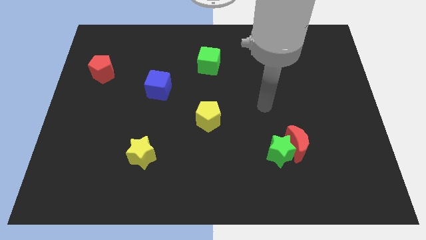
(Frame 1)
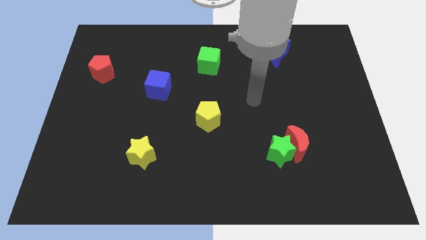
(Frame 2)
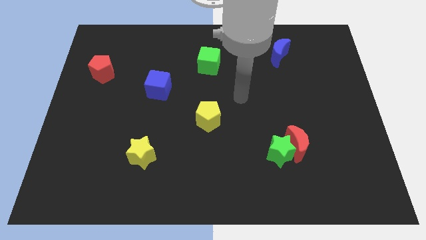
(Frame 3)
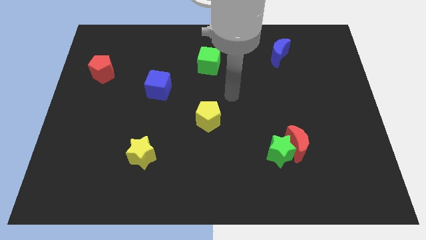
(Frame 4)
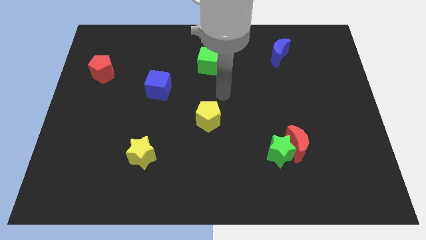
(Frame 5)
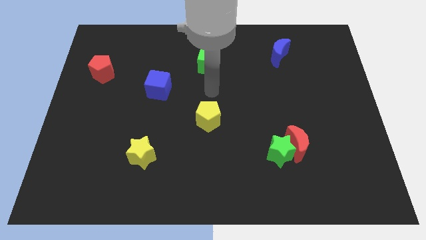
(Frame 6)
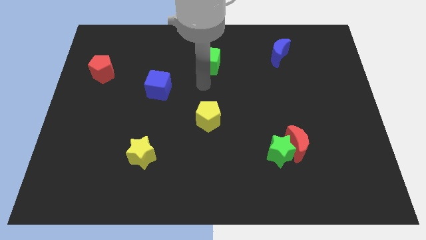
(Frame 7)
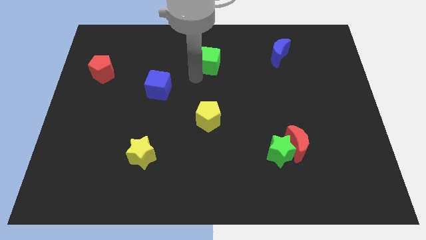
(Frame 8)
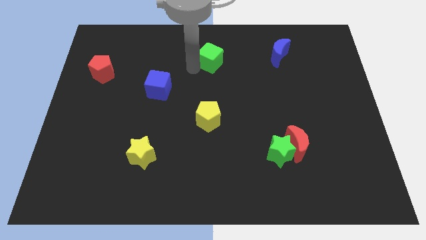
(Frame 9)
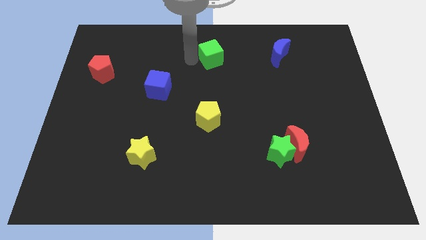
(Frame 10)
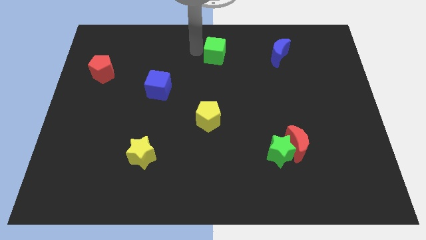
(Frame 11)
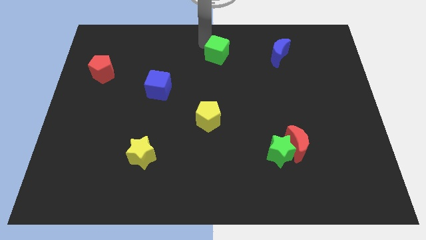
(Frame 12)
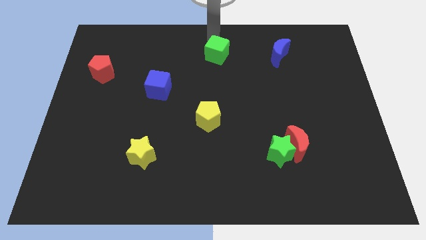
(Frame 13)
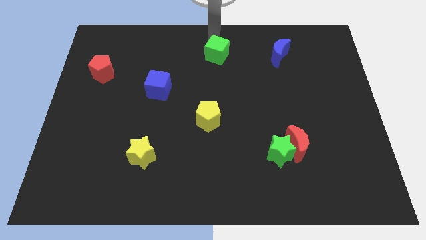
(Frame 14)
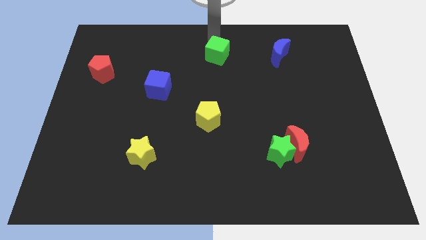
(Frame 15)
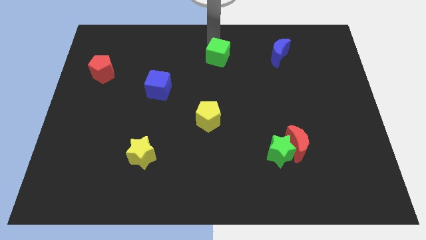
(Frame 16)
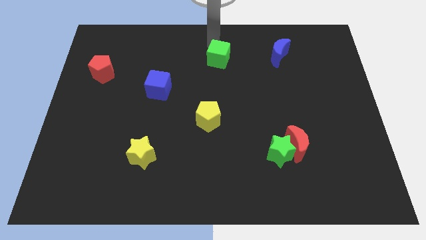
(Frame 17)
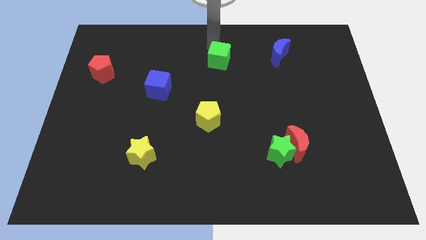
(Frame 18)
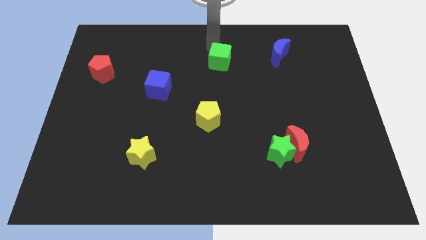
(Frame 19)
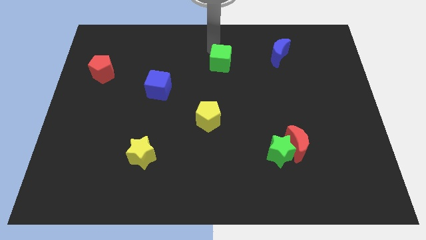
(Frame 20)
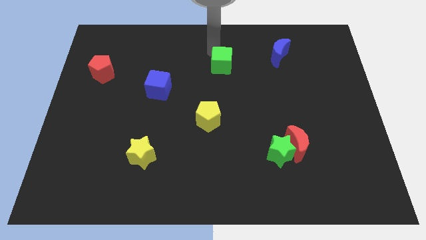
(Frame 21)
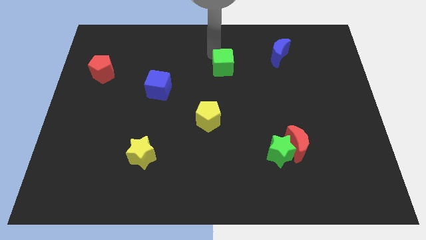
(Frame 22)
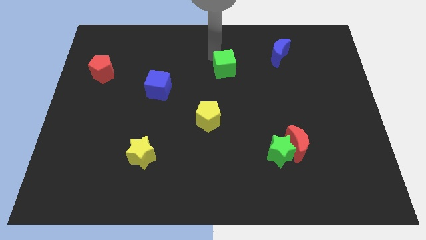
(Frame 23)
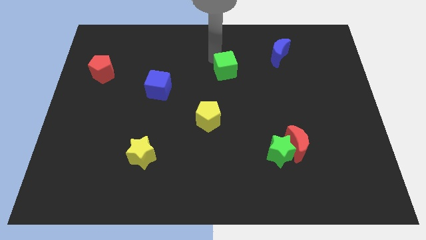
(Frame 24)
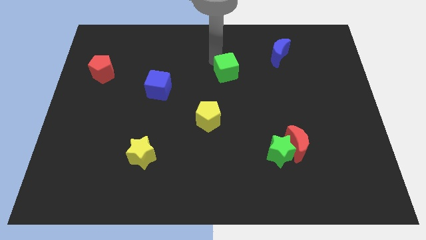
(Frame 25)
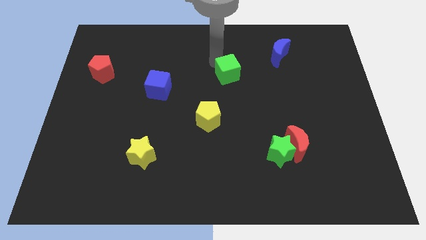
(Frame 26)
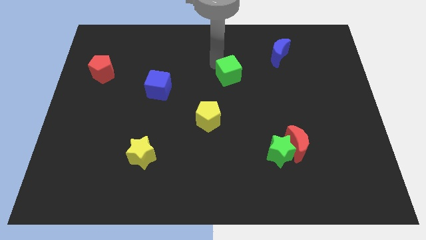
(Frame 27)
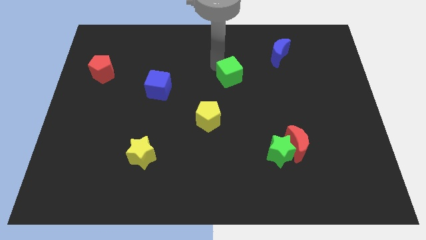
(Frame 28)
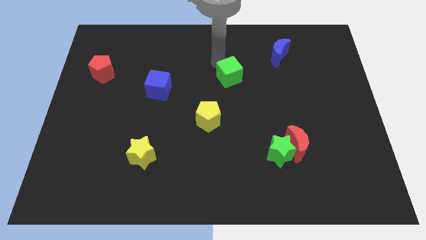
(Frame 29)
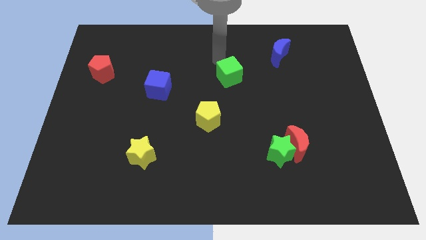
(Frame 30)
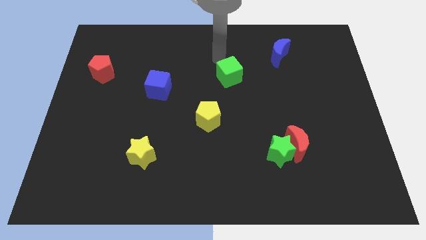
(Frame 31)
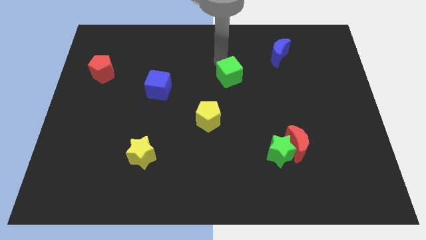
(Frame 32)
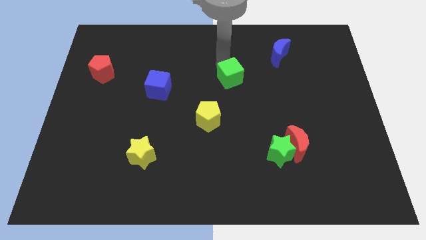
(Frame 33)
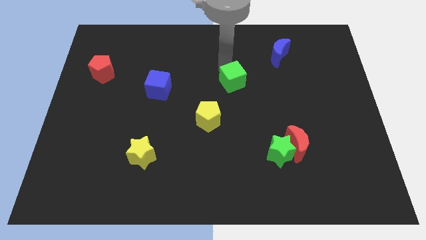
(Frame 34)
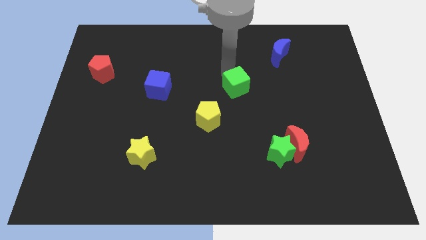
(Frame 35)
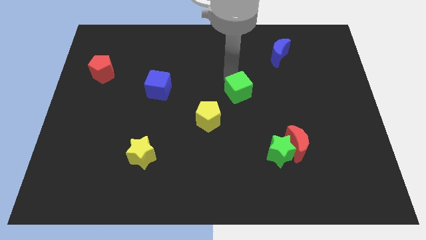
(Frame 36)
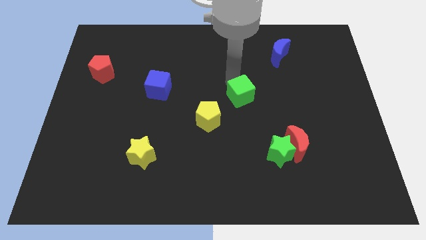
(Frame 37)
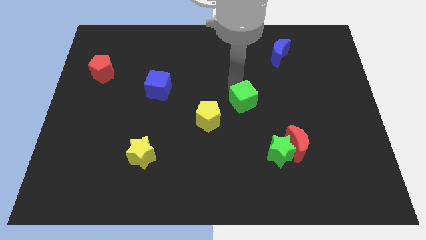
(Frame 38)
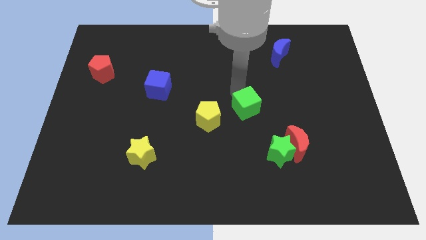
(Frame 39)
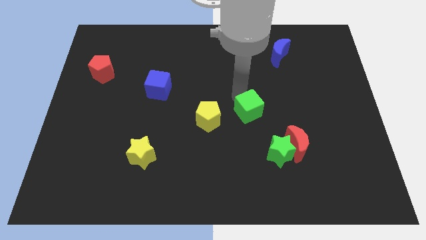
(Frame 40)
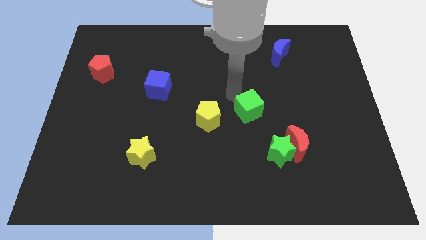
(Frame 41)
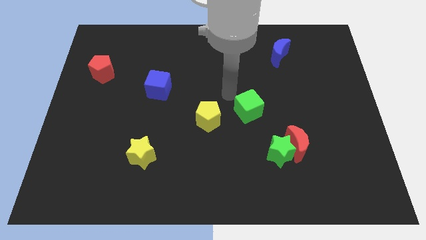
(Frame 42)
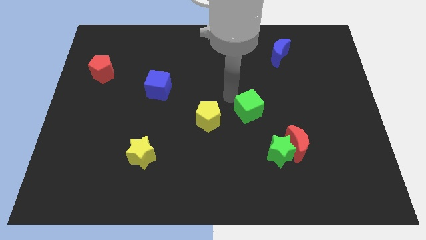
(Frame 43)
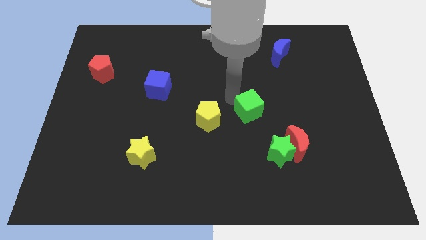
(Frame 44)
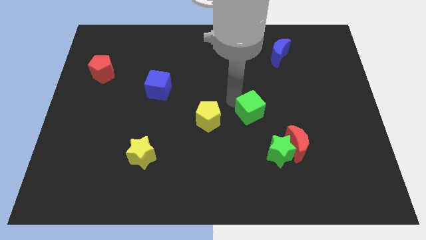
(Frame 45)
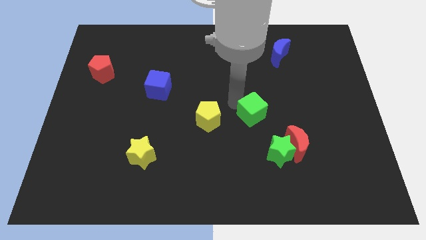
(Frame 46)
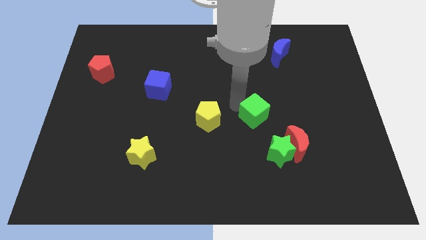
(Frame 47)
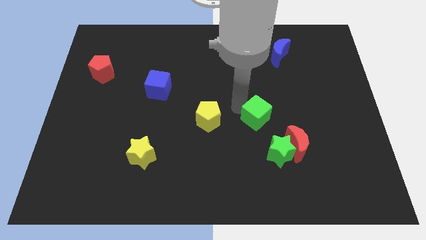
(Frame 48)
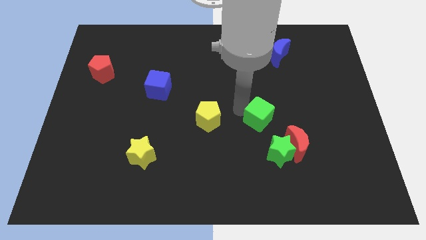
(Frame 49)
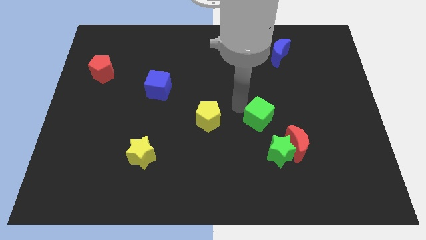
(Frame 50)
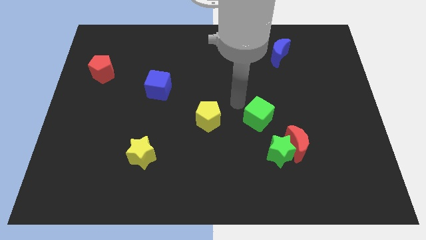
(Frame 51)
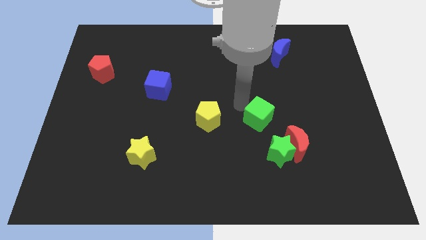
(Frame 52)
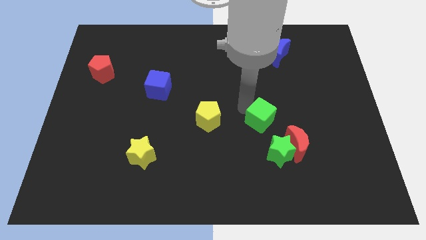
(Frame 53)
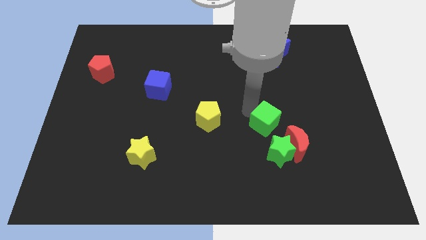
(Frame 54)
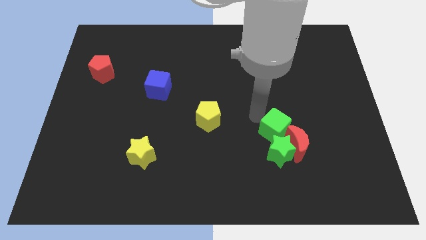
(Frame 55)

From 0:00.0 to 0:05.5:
move the green cube towards the red moon

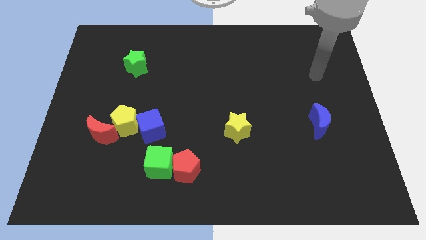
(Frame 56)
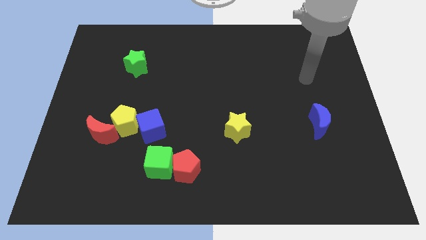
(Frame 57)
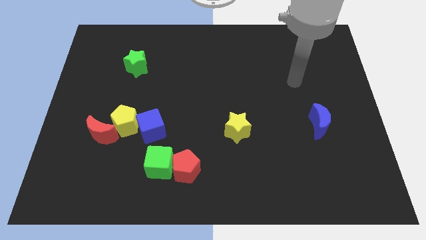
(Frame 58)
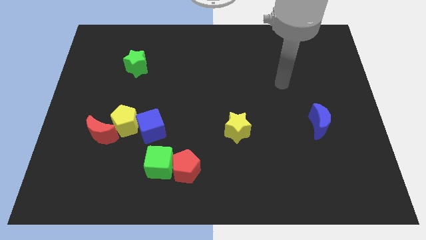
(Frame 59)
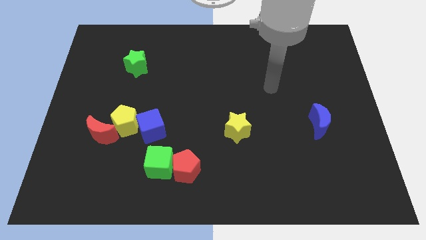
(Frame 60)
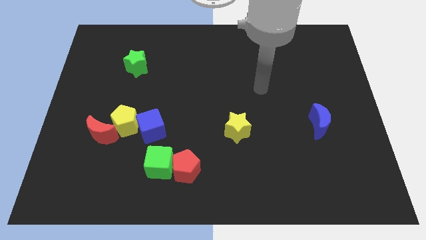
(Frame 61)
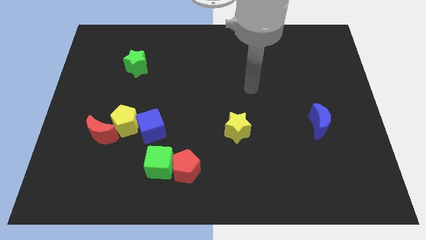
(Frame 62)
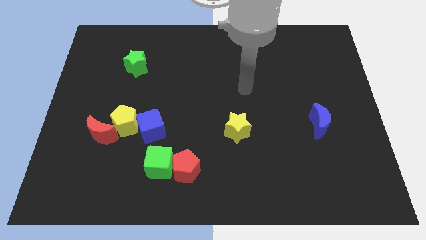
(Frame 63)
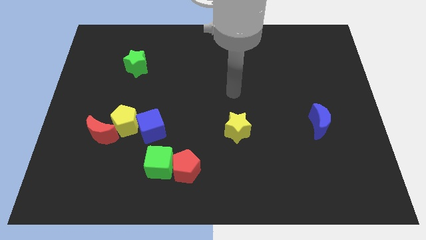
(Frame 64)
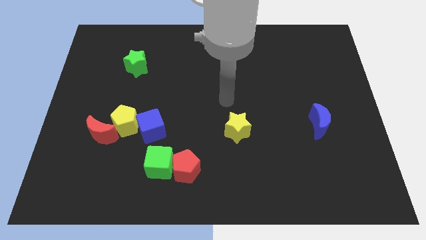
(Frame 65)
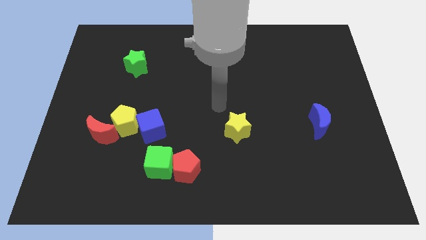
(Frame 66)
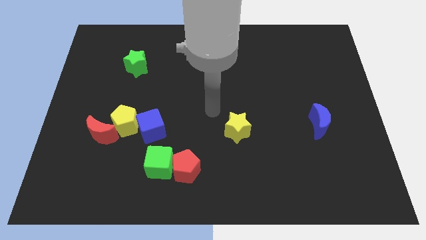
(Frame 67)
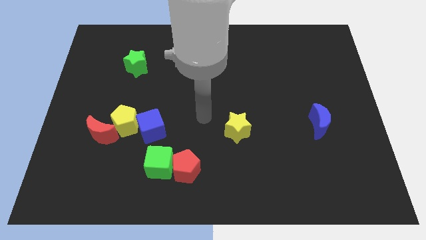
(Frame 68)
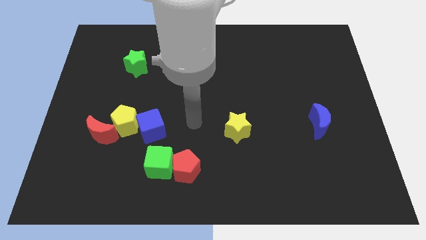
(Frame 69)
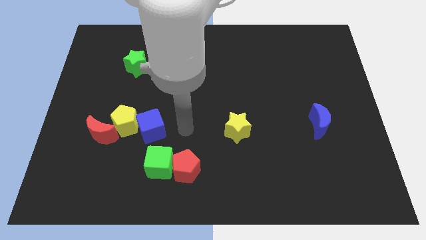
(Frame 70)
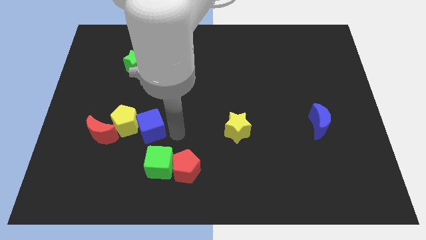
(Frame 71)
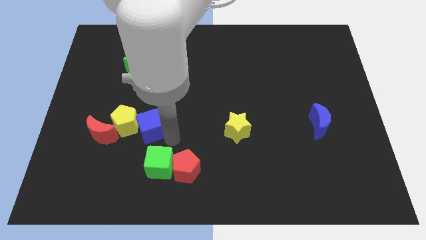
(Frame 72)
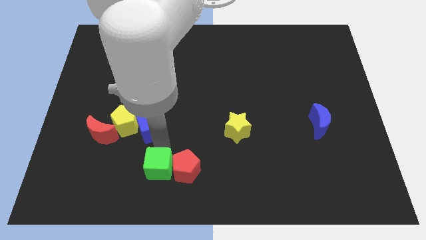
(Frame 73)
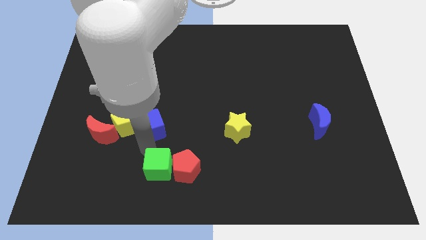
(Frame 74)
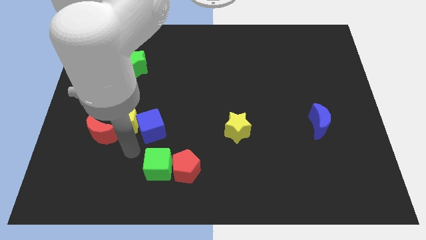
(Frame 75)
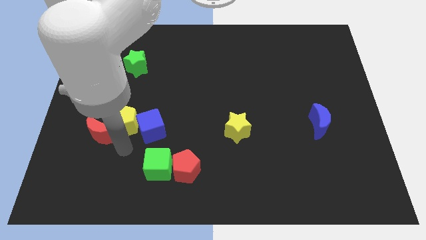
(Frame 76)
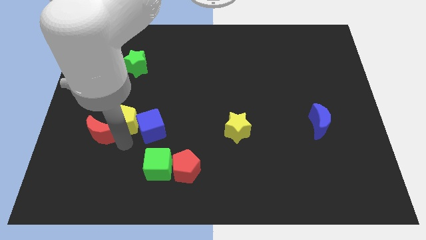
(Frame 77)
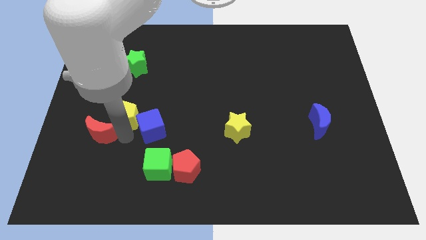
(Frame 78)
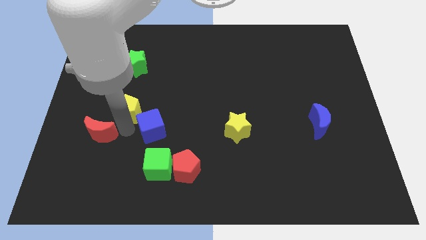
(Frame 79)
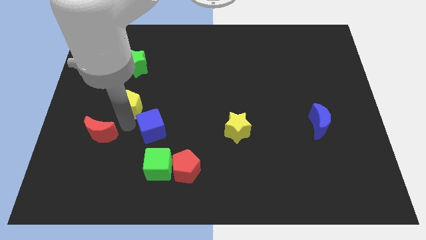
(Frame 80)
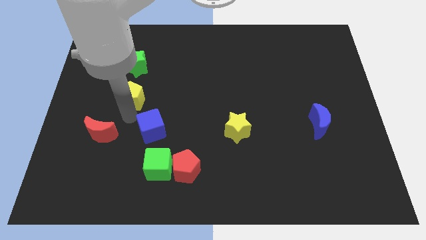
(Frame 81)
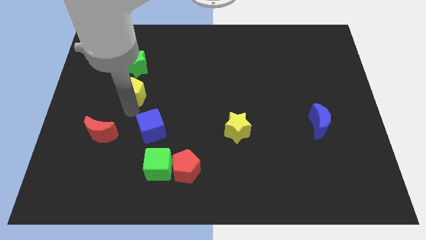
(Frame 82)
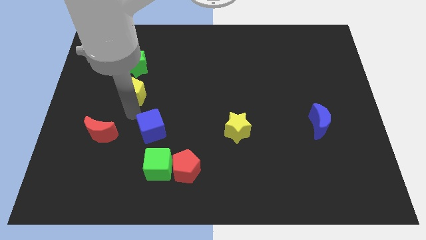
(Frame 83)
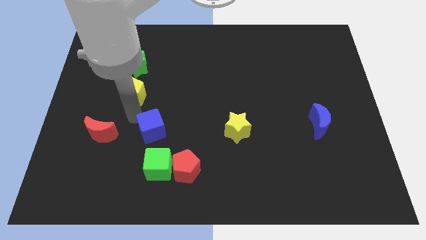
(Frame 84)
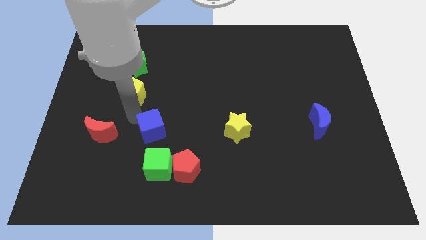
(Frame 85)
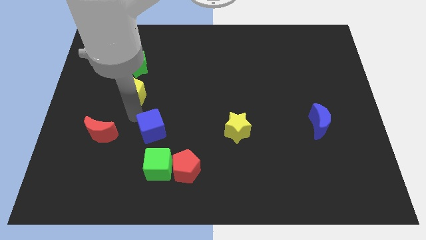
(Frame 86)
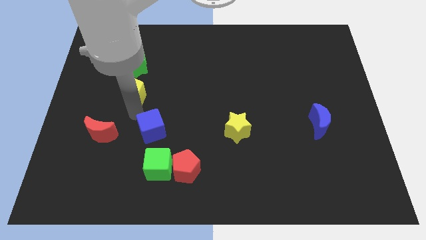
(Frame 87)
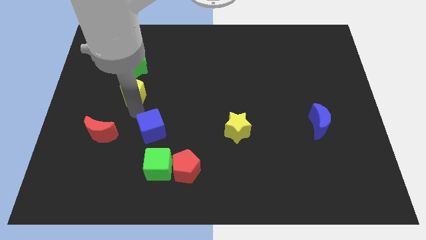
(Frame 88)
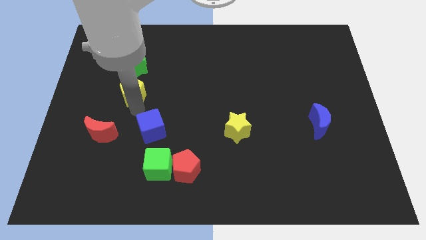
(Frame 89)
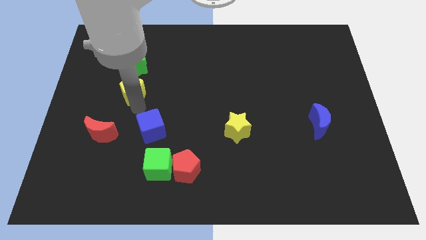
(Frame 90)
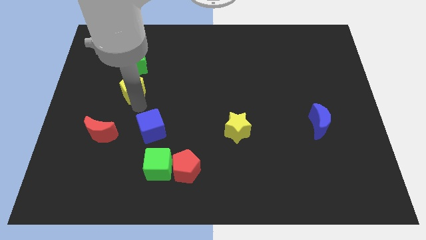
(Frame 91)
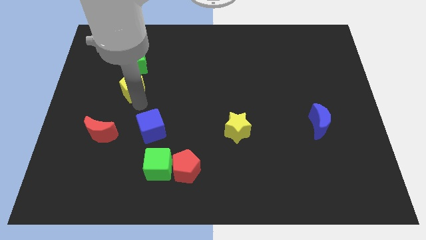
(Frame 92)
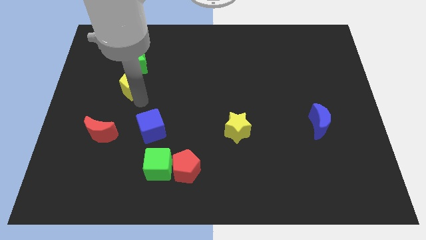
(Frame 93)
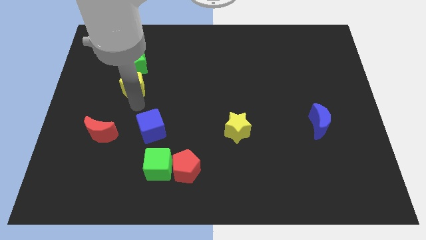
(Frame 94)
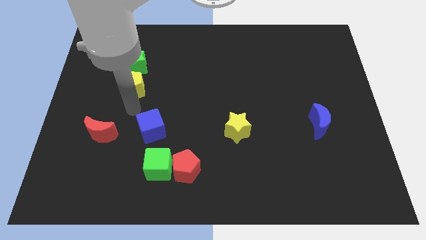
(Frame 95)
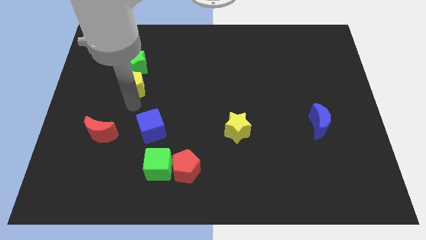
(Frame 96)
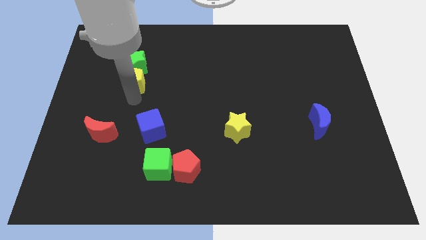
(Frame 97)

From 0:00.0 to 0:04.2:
push the yellow pentagon towards the green star
